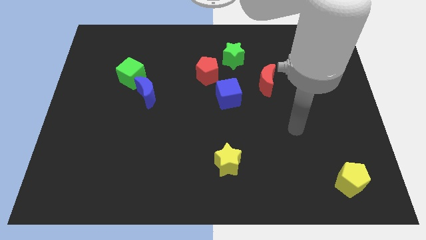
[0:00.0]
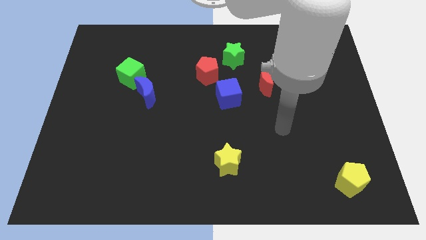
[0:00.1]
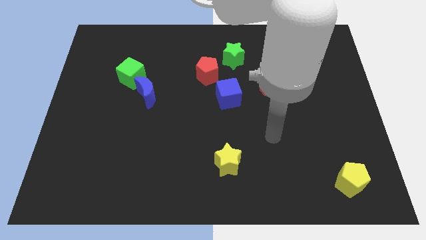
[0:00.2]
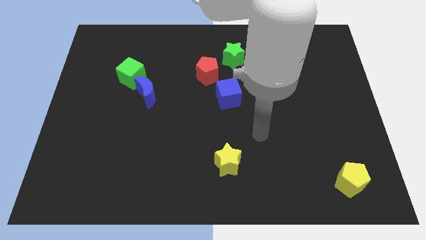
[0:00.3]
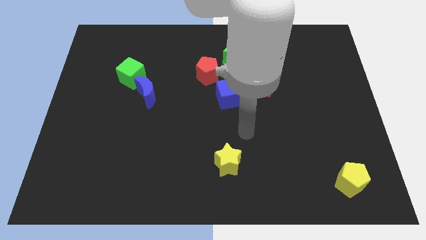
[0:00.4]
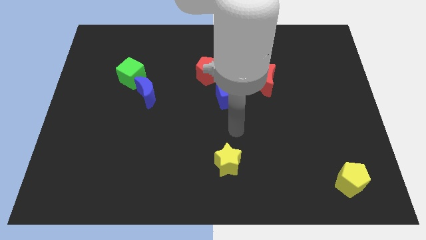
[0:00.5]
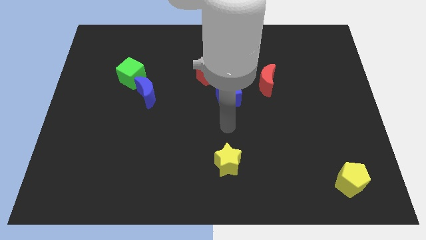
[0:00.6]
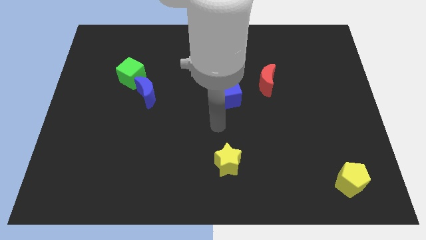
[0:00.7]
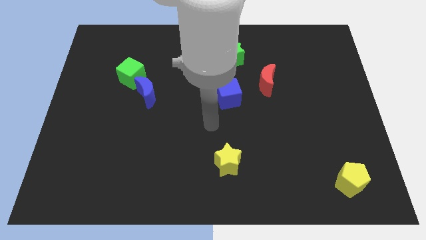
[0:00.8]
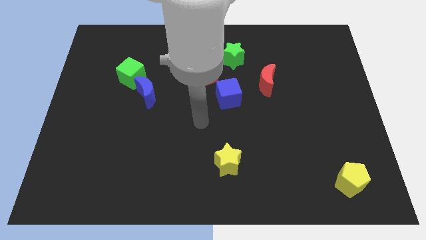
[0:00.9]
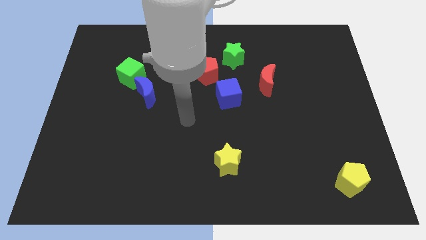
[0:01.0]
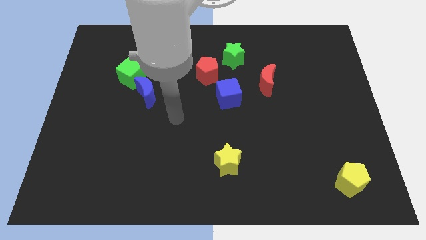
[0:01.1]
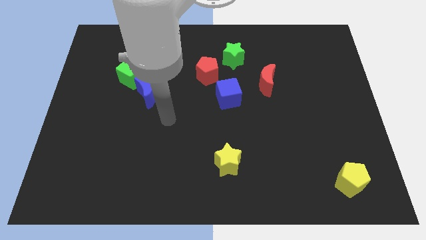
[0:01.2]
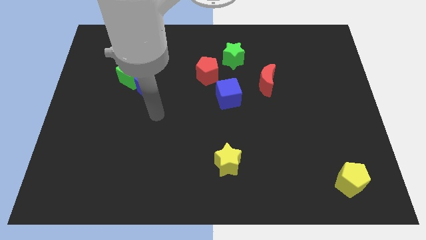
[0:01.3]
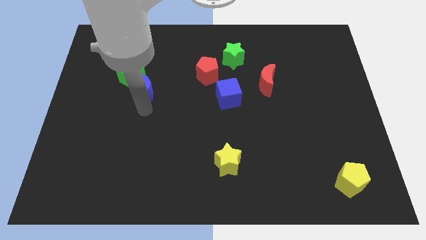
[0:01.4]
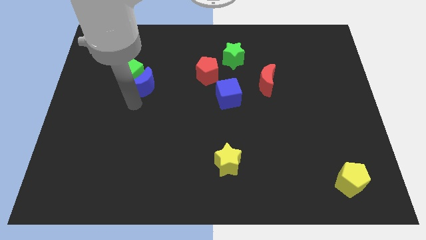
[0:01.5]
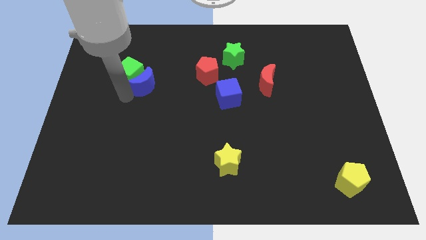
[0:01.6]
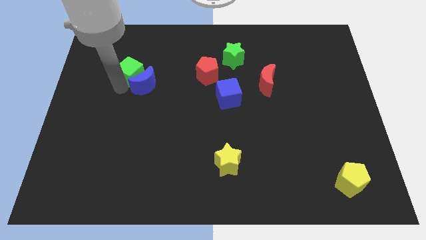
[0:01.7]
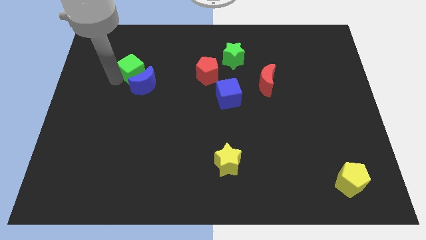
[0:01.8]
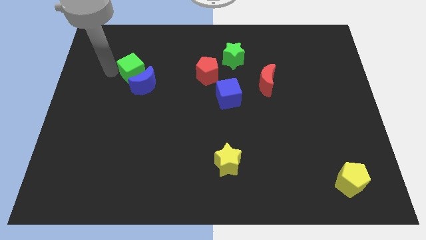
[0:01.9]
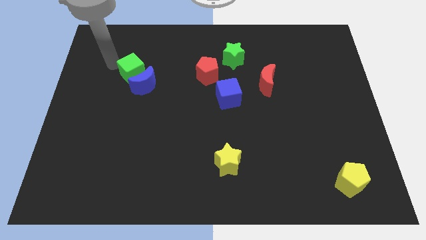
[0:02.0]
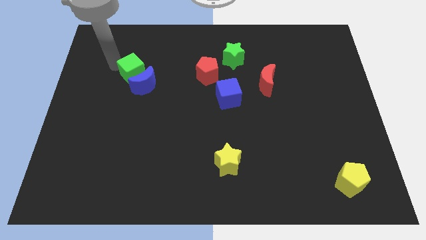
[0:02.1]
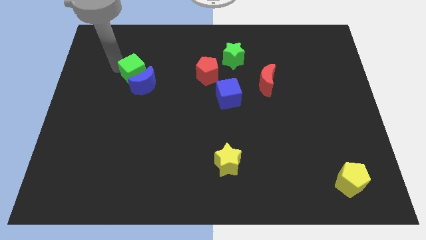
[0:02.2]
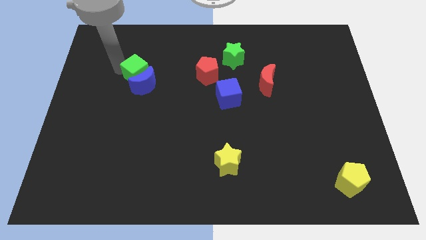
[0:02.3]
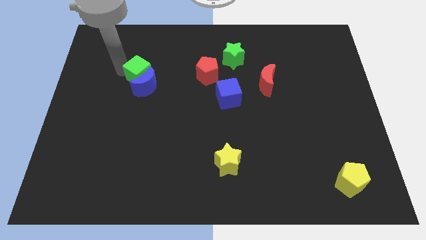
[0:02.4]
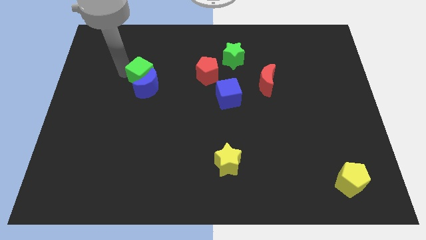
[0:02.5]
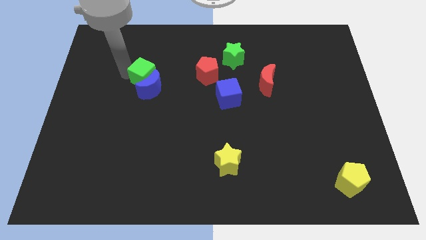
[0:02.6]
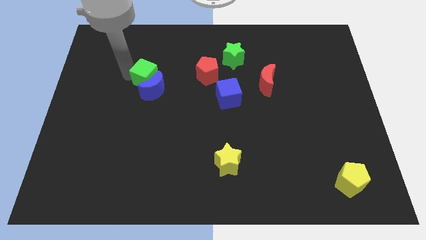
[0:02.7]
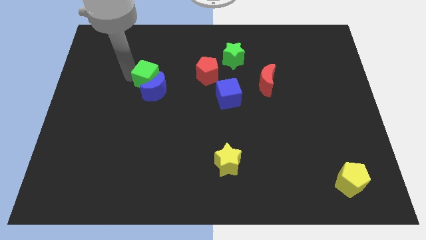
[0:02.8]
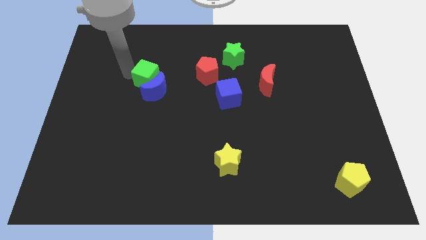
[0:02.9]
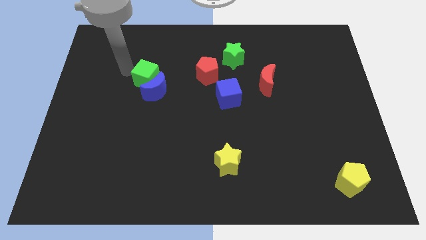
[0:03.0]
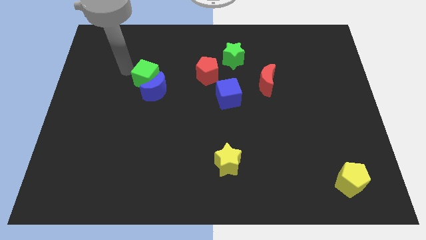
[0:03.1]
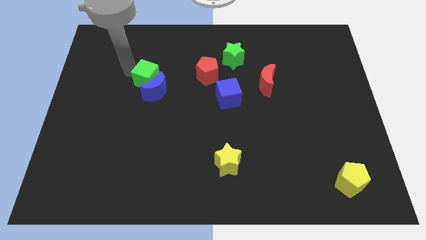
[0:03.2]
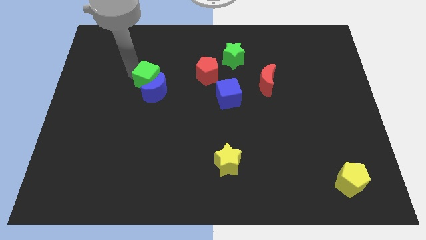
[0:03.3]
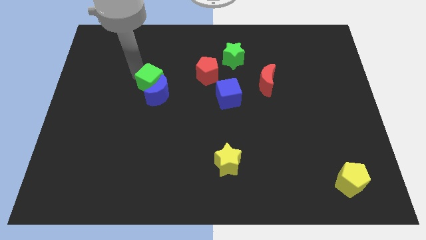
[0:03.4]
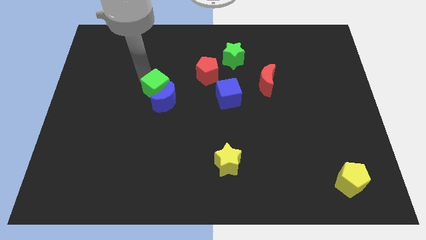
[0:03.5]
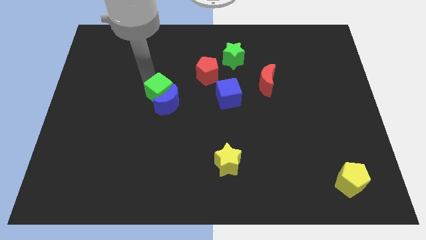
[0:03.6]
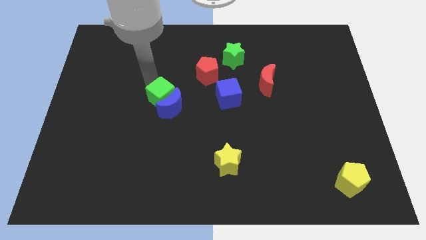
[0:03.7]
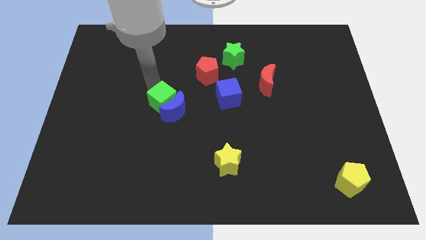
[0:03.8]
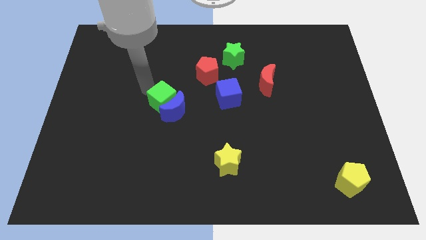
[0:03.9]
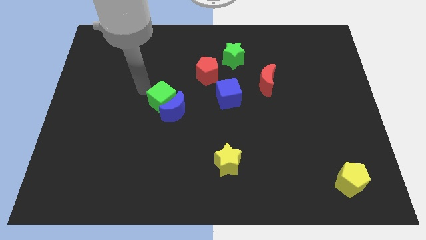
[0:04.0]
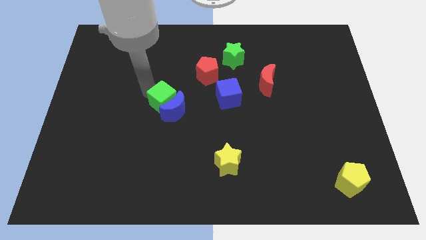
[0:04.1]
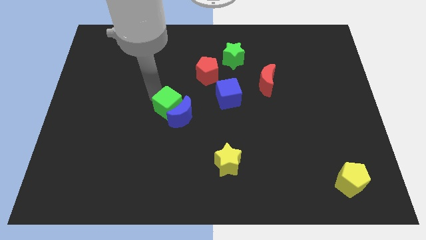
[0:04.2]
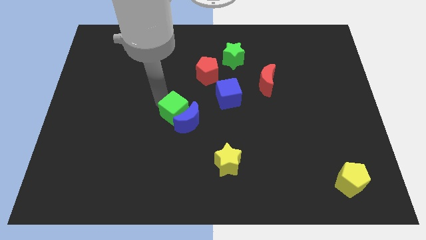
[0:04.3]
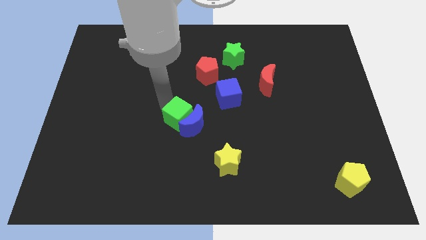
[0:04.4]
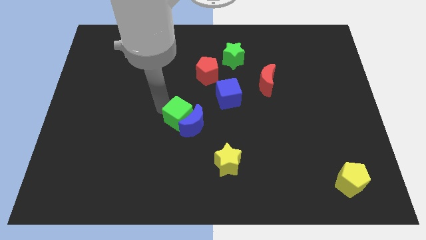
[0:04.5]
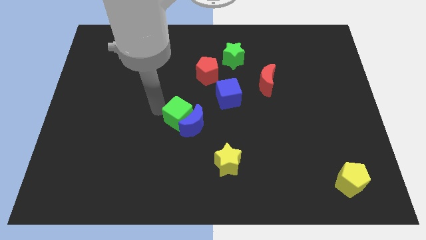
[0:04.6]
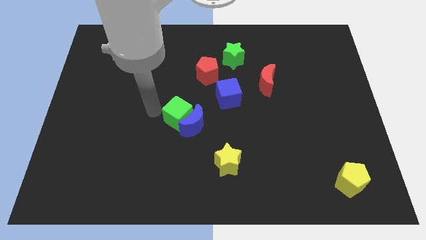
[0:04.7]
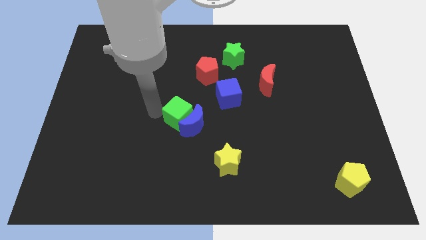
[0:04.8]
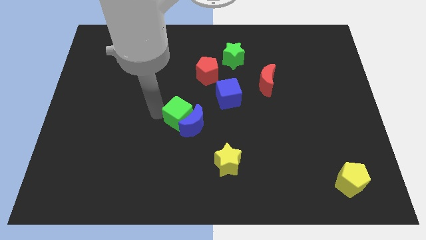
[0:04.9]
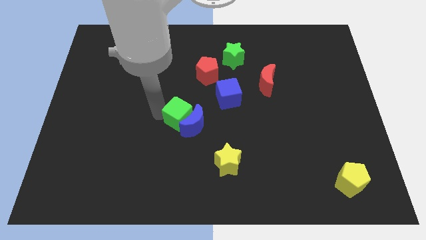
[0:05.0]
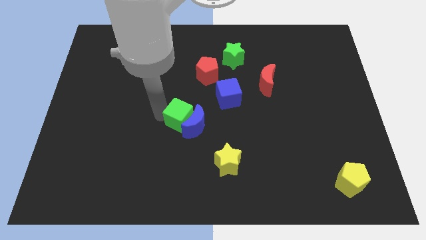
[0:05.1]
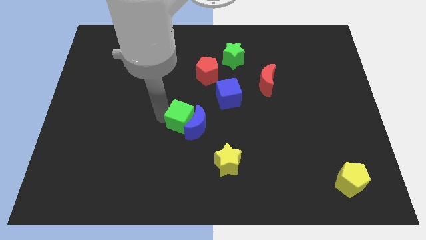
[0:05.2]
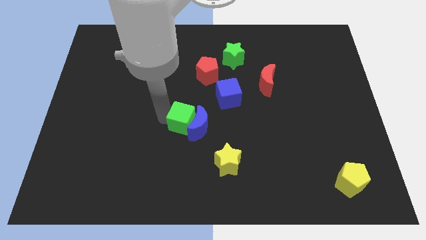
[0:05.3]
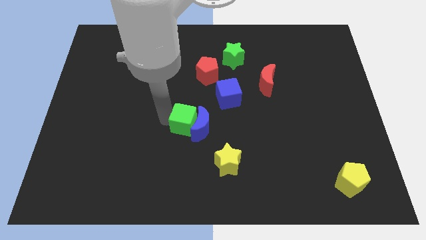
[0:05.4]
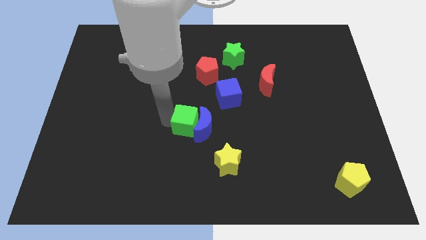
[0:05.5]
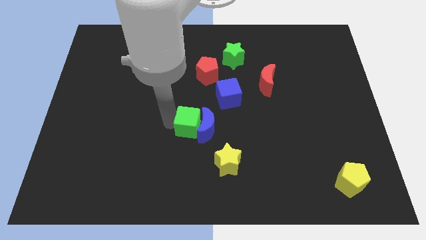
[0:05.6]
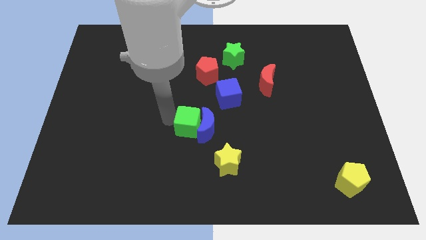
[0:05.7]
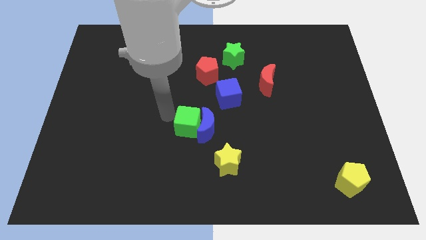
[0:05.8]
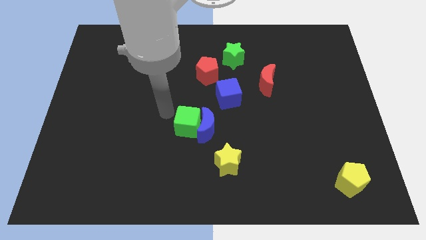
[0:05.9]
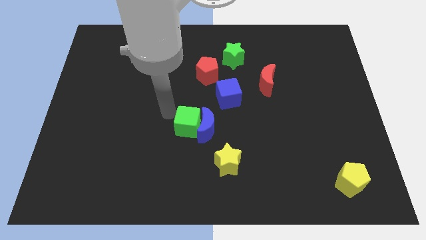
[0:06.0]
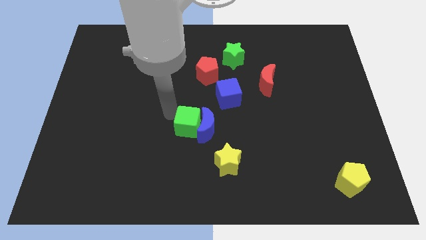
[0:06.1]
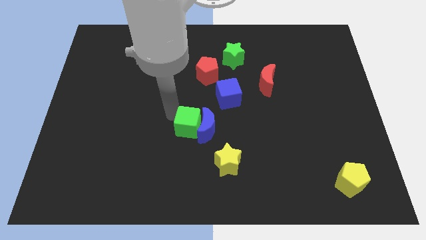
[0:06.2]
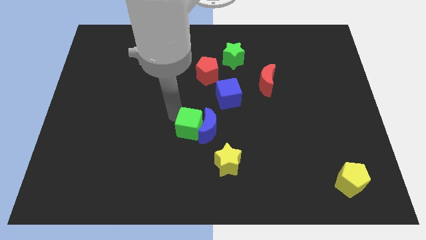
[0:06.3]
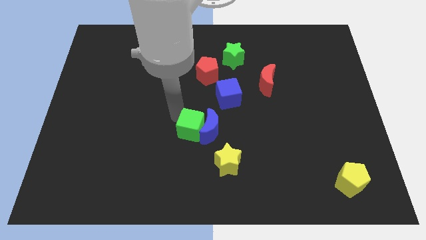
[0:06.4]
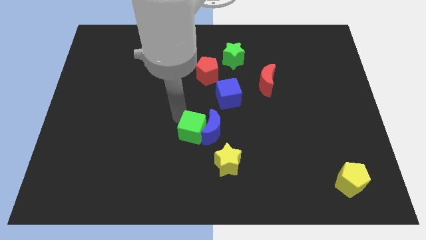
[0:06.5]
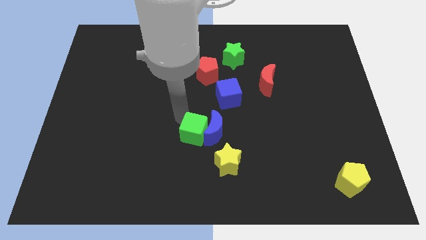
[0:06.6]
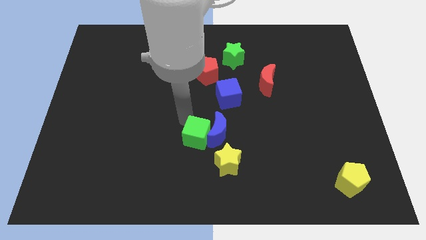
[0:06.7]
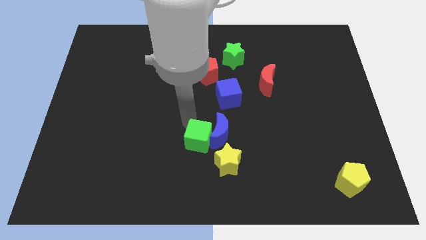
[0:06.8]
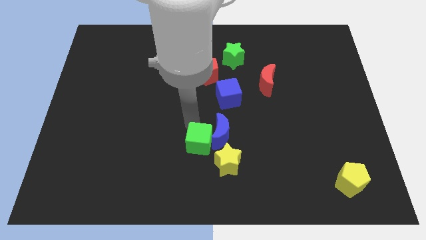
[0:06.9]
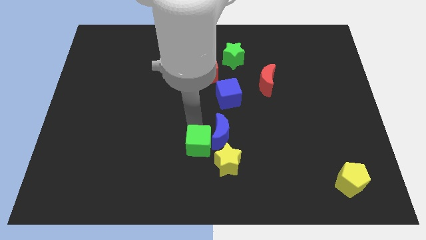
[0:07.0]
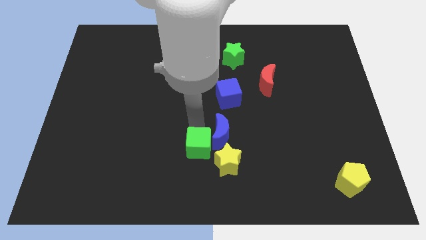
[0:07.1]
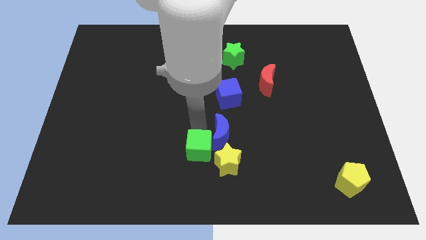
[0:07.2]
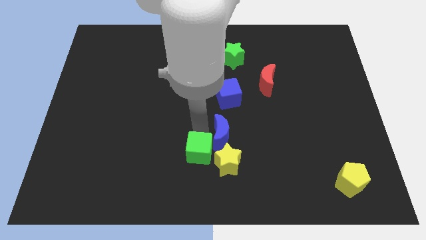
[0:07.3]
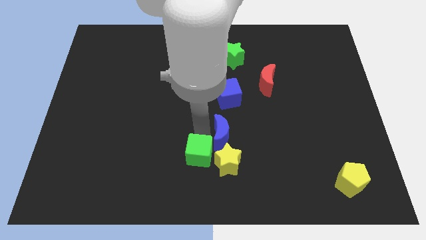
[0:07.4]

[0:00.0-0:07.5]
put the green cube close to the yellow star
